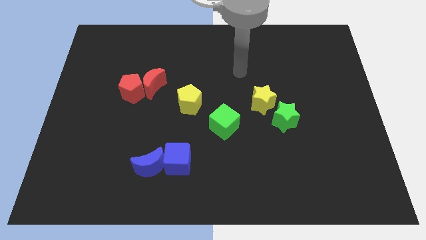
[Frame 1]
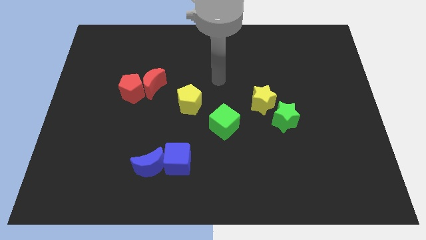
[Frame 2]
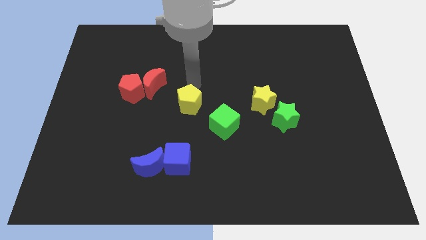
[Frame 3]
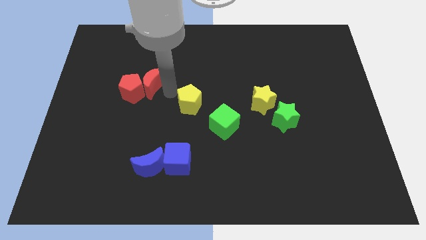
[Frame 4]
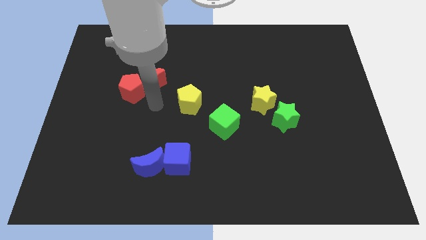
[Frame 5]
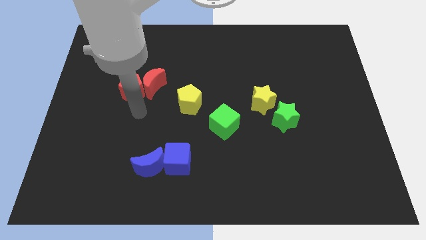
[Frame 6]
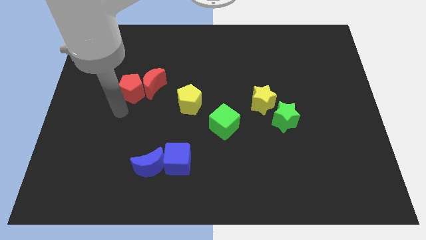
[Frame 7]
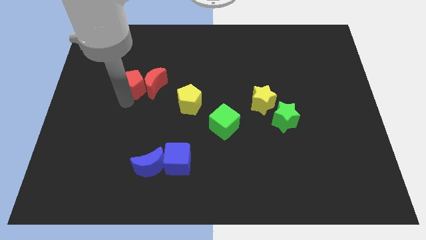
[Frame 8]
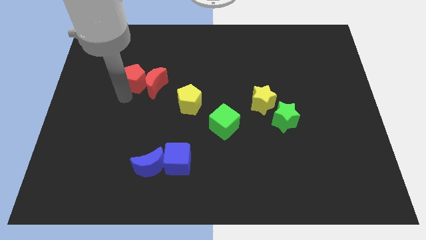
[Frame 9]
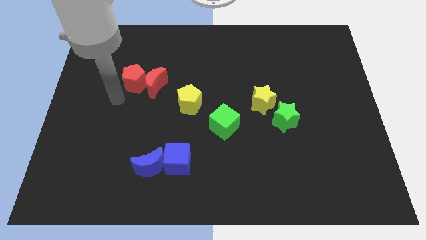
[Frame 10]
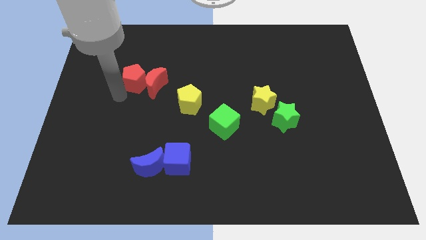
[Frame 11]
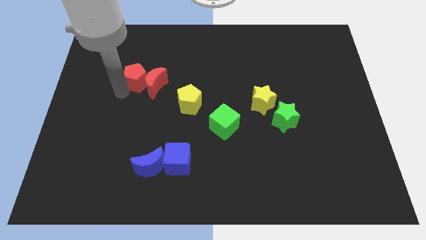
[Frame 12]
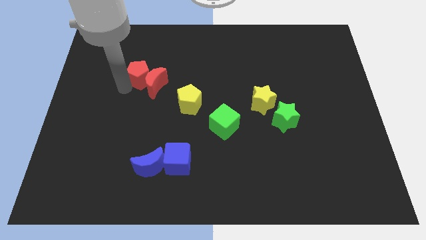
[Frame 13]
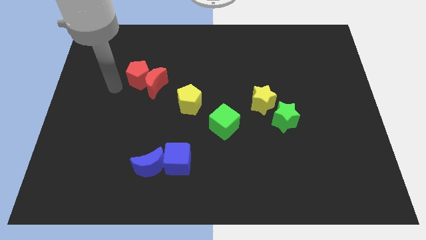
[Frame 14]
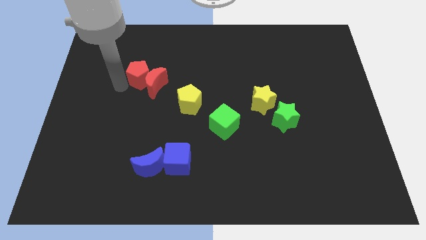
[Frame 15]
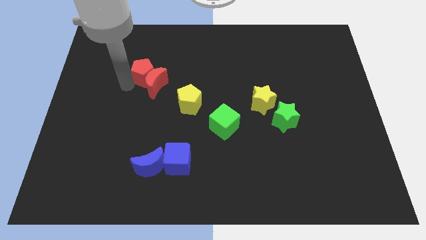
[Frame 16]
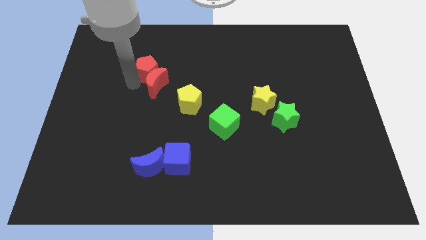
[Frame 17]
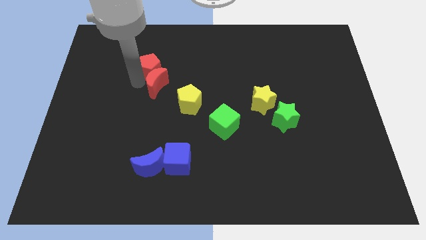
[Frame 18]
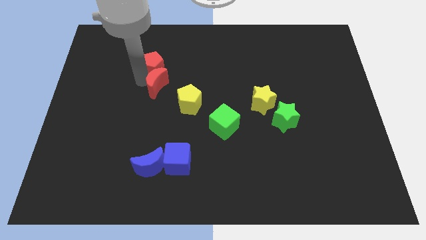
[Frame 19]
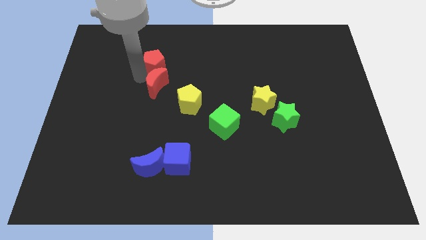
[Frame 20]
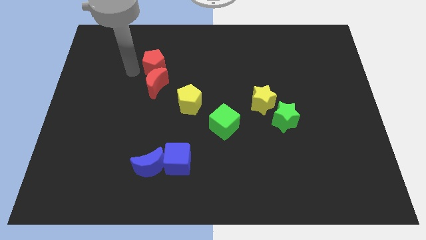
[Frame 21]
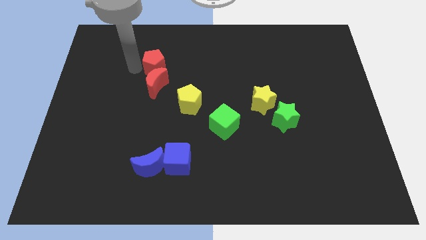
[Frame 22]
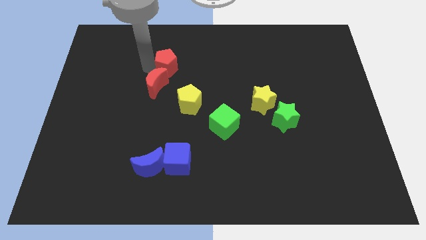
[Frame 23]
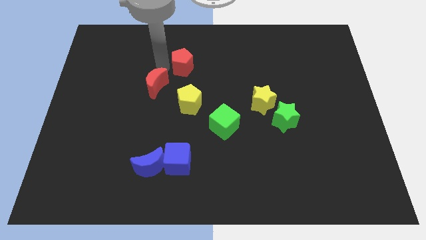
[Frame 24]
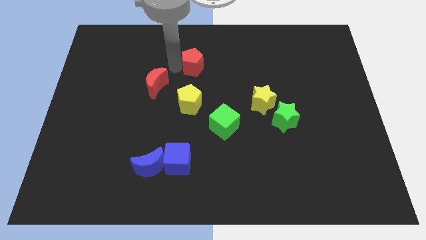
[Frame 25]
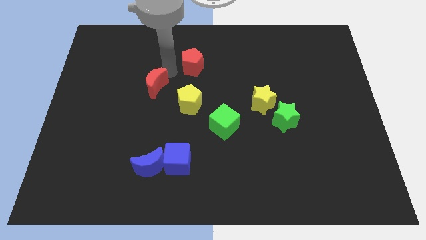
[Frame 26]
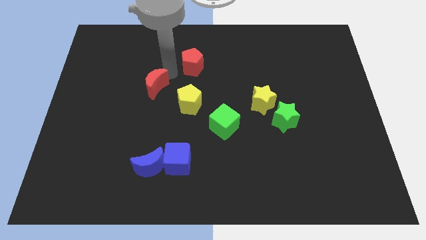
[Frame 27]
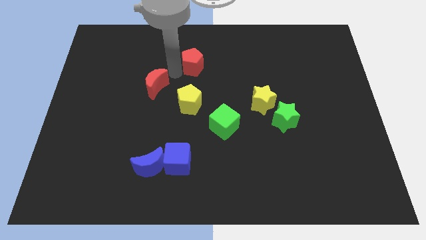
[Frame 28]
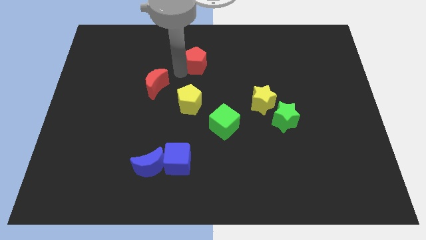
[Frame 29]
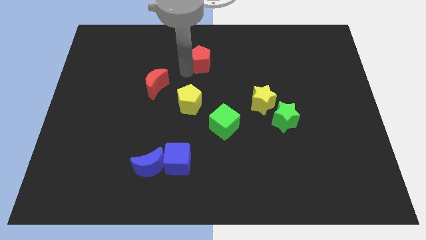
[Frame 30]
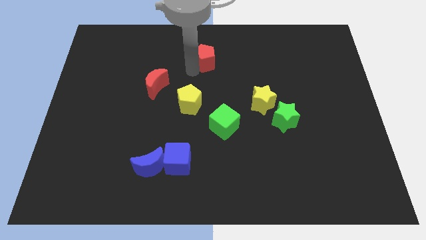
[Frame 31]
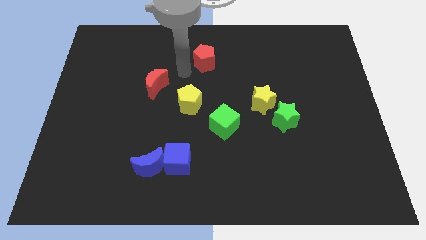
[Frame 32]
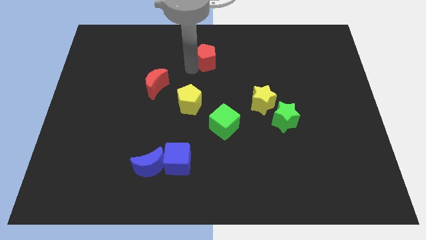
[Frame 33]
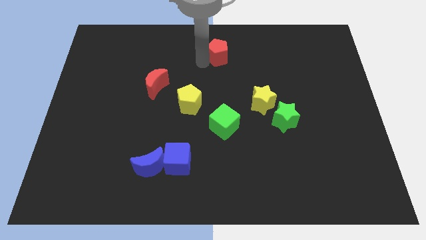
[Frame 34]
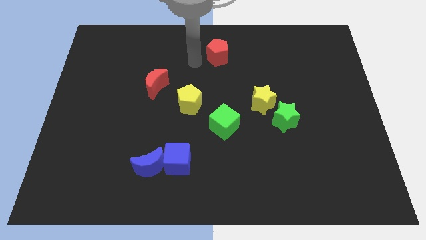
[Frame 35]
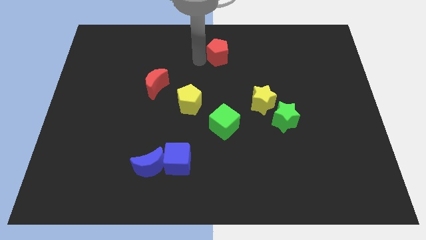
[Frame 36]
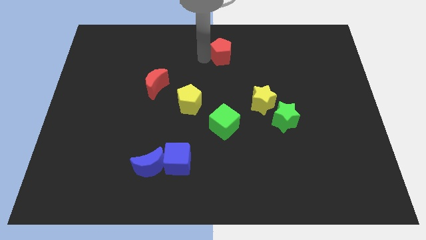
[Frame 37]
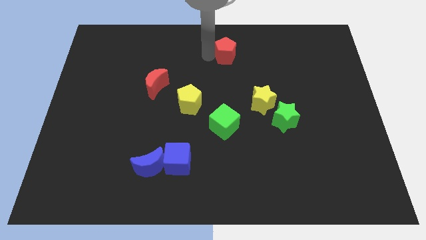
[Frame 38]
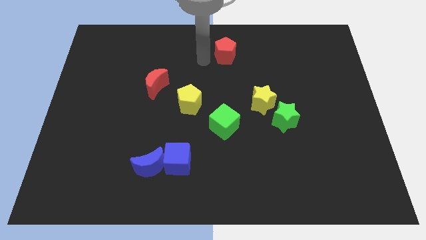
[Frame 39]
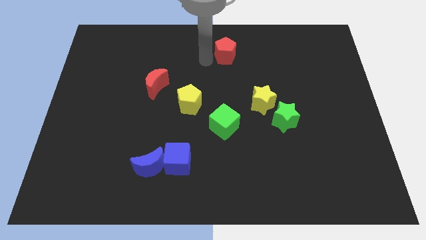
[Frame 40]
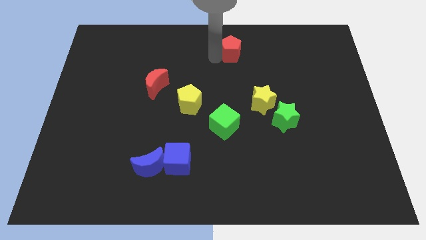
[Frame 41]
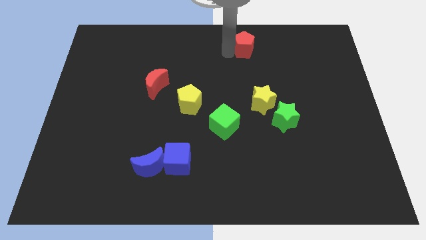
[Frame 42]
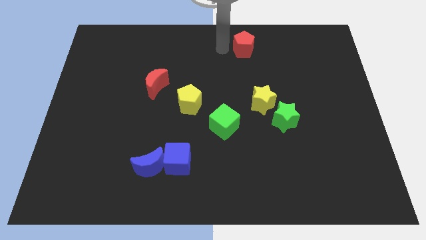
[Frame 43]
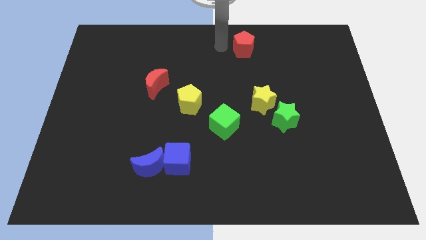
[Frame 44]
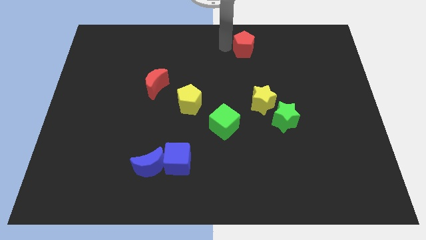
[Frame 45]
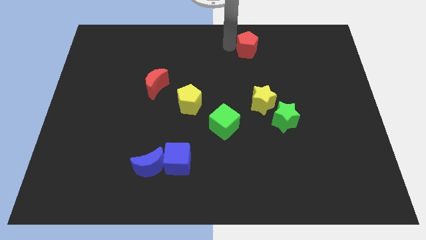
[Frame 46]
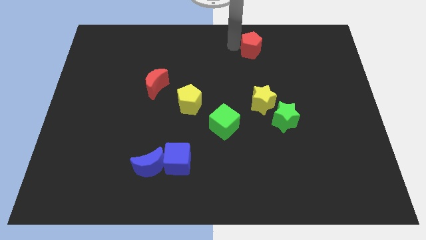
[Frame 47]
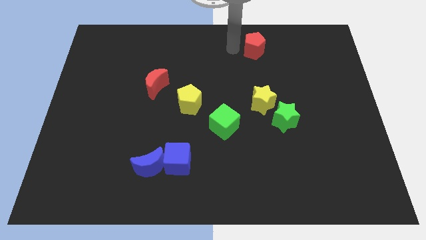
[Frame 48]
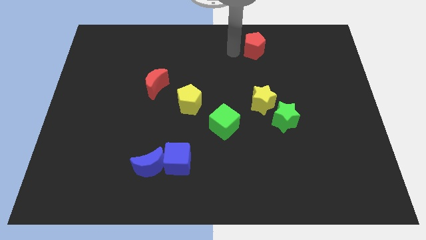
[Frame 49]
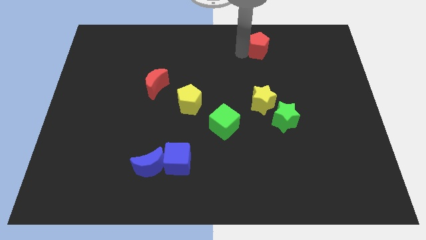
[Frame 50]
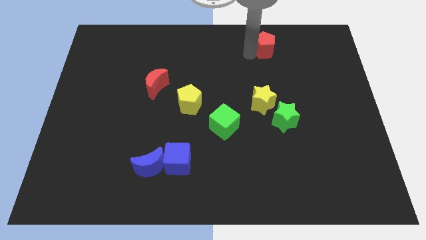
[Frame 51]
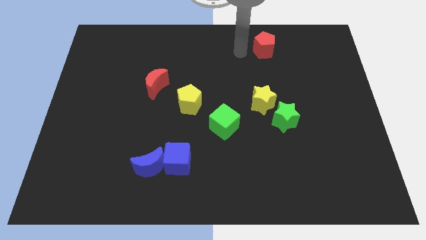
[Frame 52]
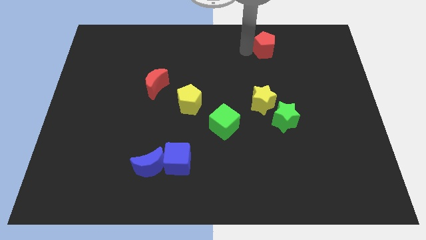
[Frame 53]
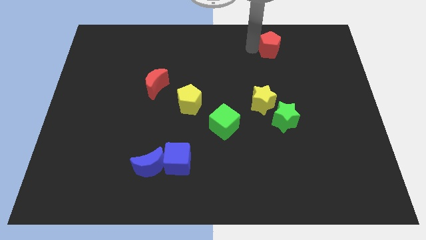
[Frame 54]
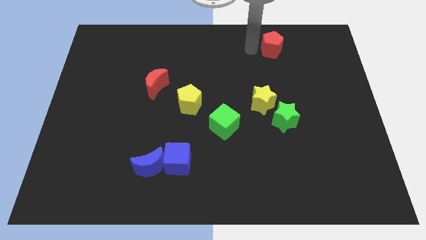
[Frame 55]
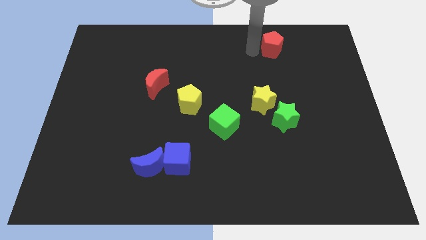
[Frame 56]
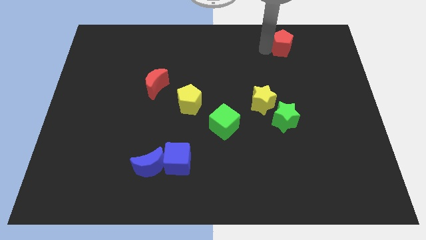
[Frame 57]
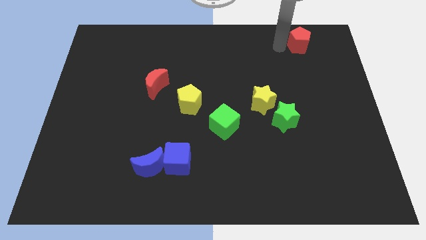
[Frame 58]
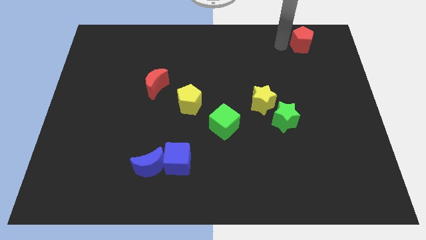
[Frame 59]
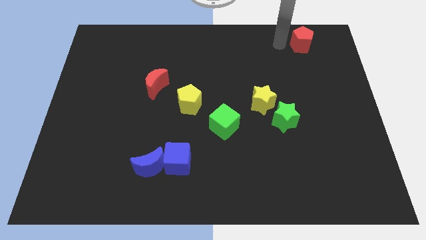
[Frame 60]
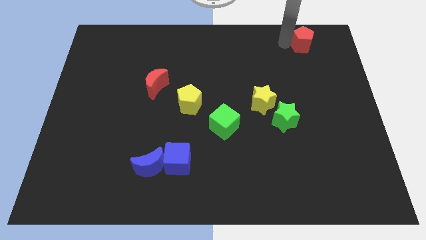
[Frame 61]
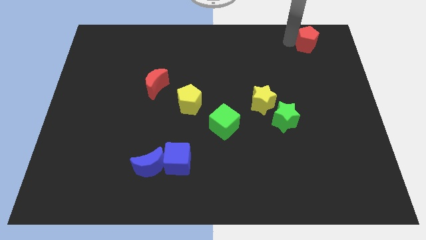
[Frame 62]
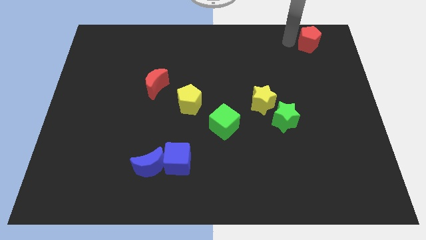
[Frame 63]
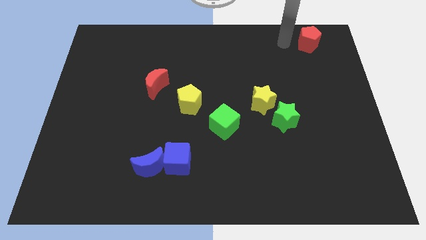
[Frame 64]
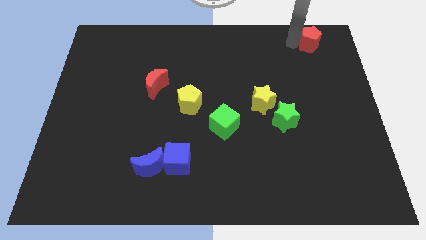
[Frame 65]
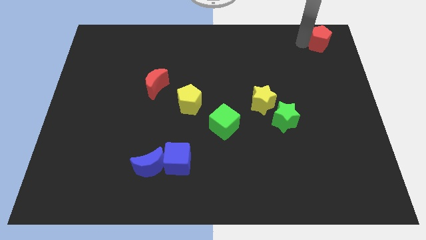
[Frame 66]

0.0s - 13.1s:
move the red pentagon to the top right corner

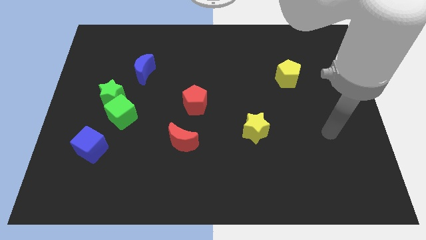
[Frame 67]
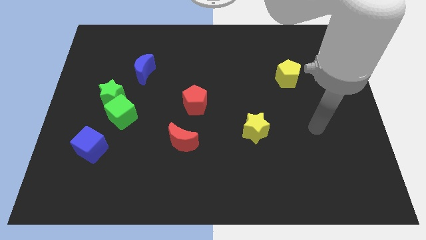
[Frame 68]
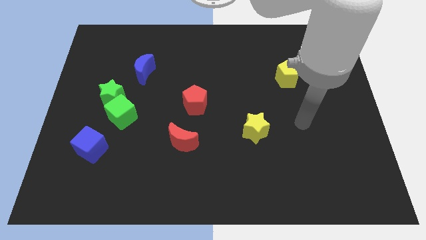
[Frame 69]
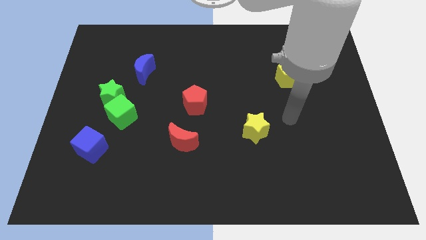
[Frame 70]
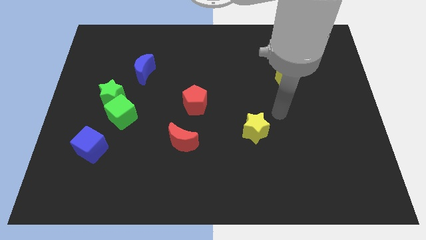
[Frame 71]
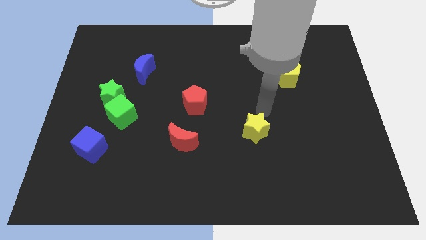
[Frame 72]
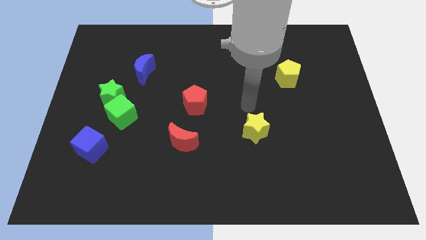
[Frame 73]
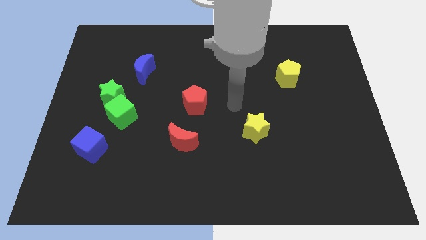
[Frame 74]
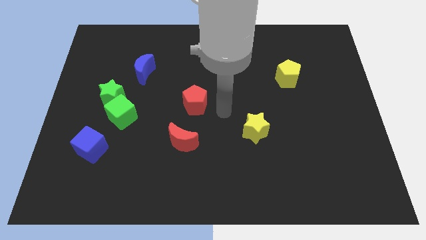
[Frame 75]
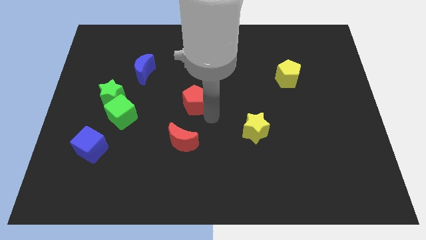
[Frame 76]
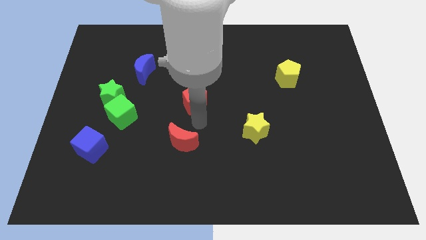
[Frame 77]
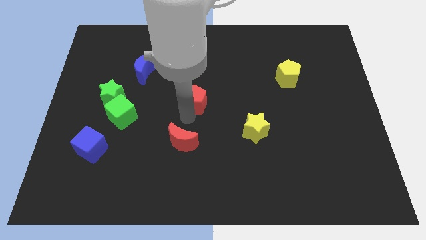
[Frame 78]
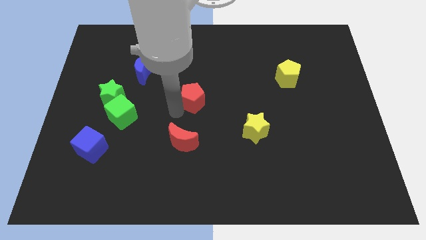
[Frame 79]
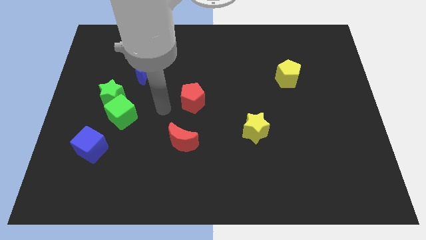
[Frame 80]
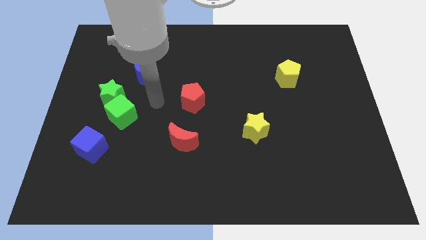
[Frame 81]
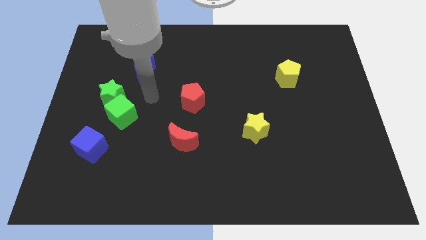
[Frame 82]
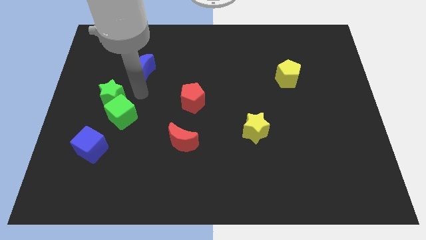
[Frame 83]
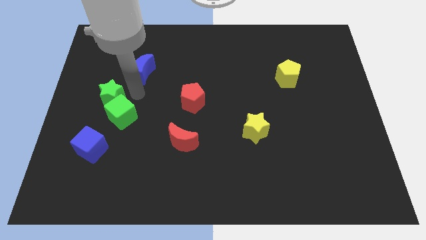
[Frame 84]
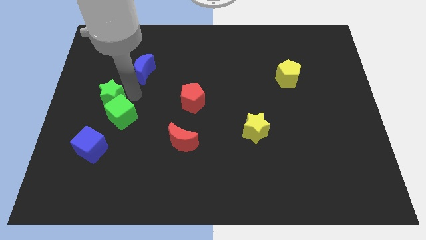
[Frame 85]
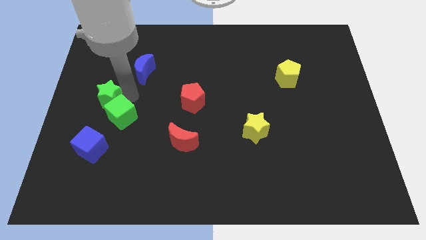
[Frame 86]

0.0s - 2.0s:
slide the green star to the center left
